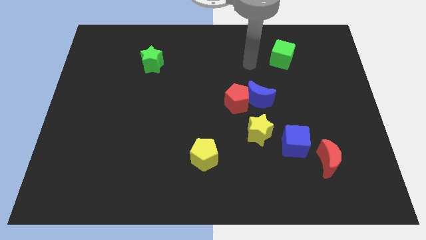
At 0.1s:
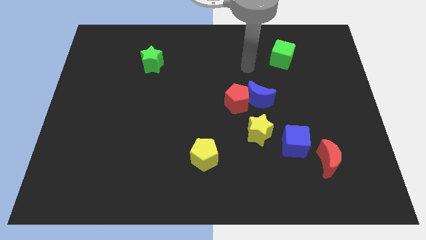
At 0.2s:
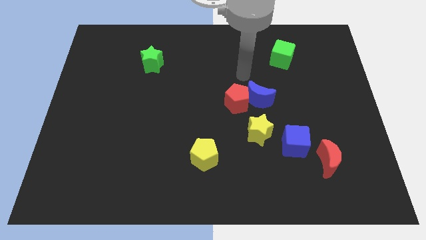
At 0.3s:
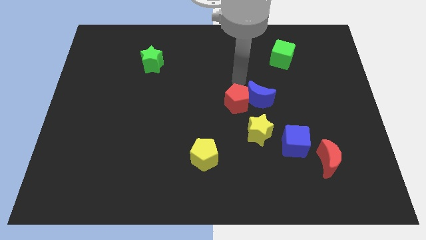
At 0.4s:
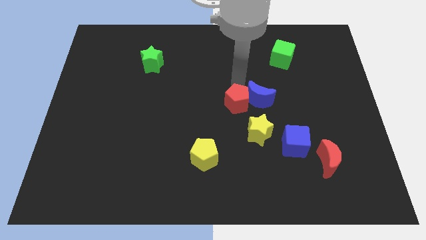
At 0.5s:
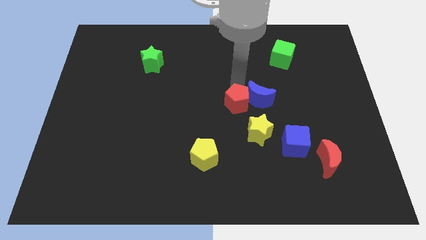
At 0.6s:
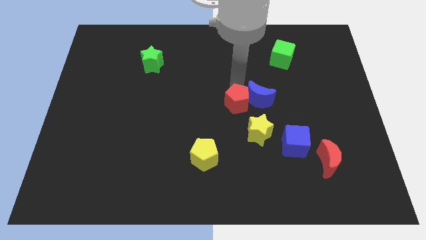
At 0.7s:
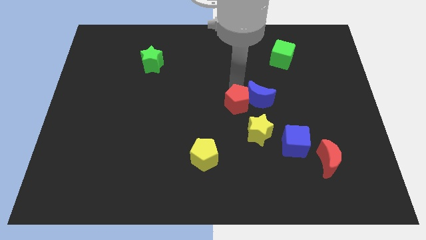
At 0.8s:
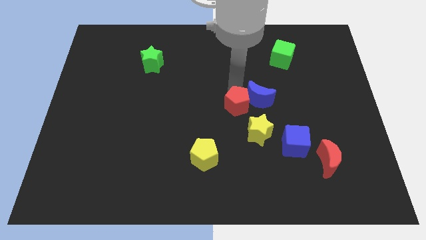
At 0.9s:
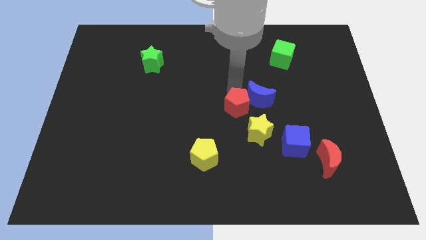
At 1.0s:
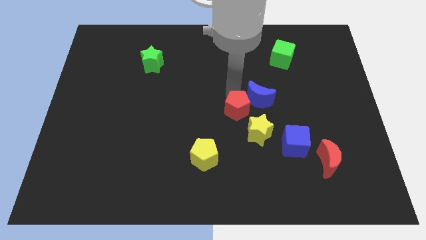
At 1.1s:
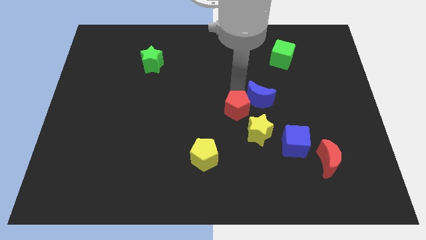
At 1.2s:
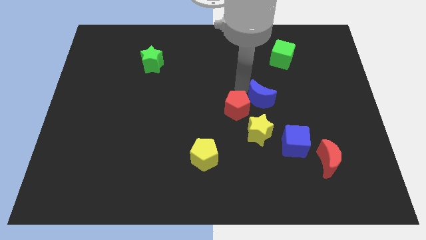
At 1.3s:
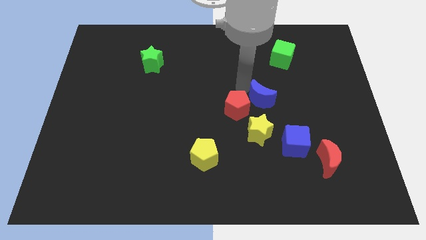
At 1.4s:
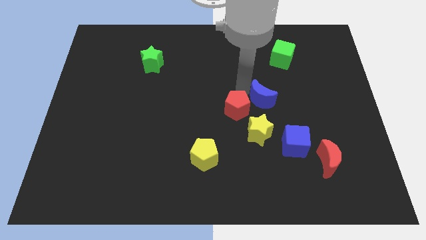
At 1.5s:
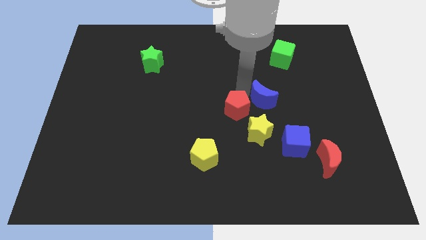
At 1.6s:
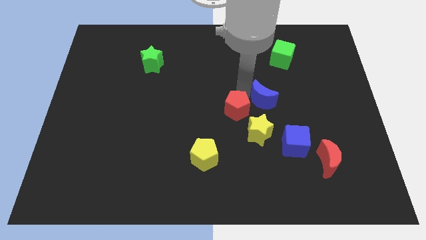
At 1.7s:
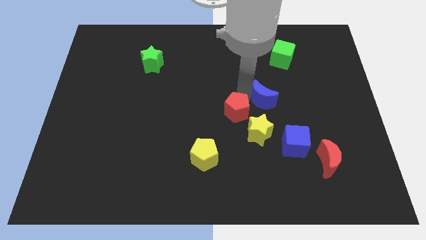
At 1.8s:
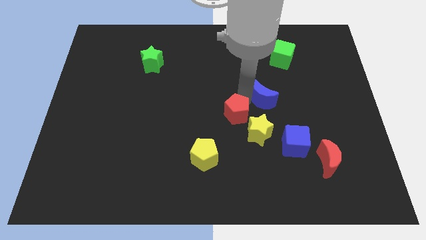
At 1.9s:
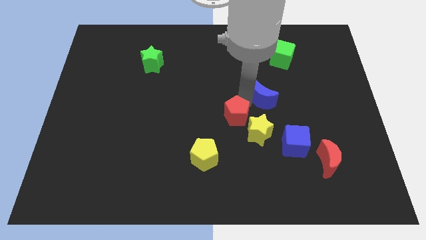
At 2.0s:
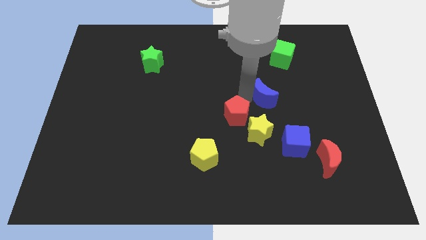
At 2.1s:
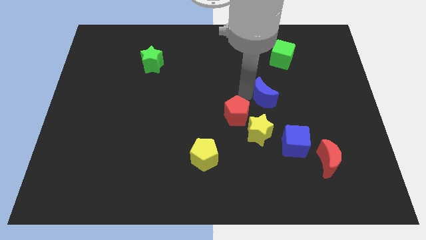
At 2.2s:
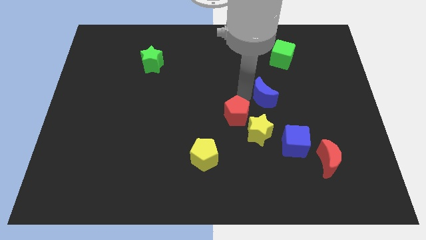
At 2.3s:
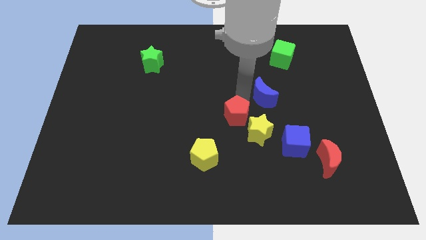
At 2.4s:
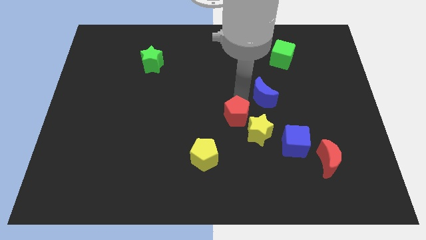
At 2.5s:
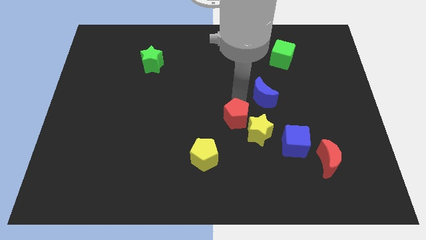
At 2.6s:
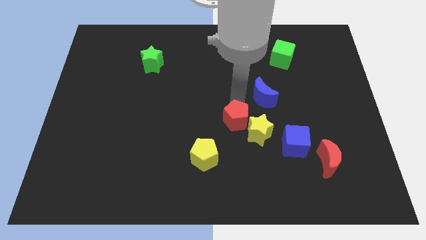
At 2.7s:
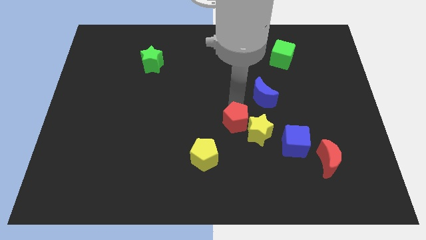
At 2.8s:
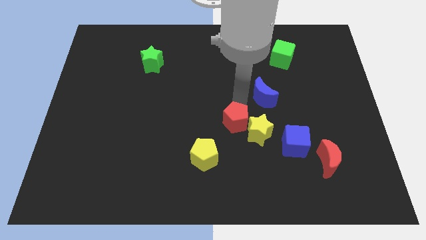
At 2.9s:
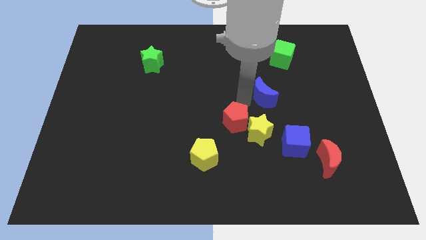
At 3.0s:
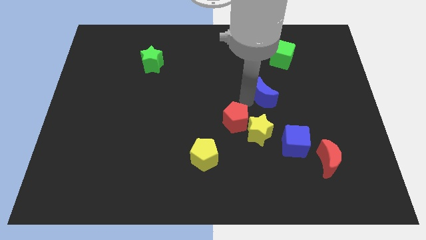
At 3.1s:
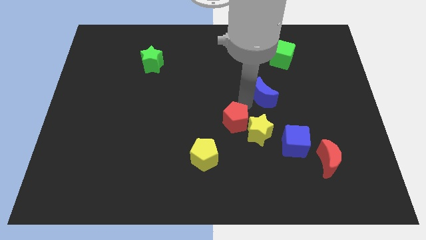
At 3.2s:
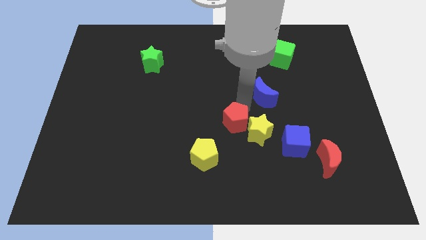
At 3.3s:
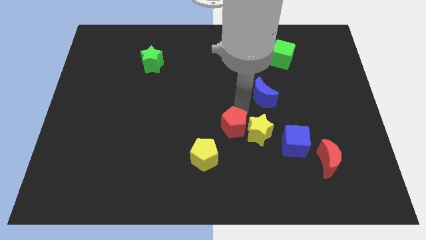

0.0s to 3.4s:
slightly move the red pentagon down

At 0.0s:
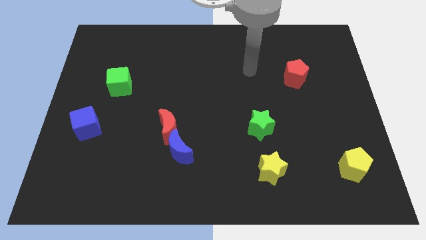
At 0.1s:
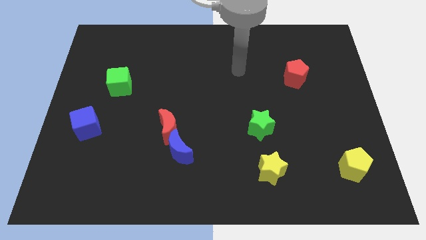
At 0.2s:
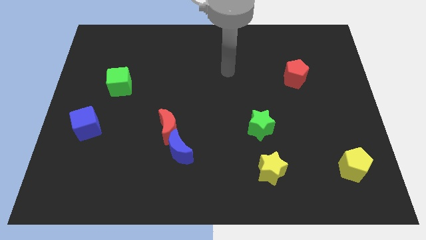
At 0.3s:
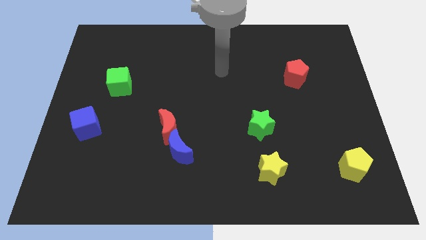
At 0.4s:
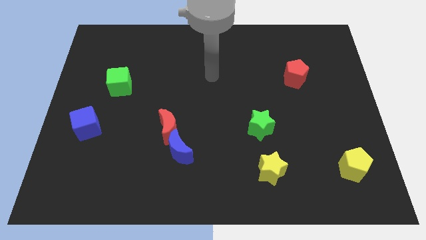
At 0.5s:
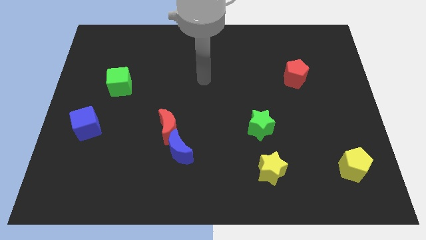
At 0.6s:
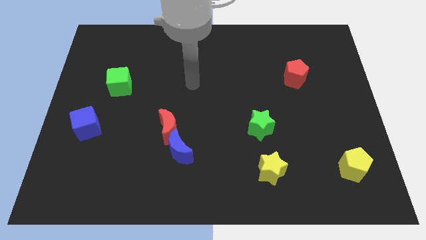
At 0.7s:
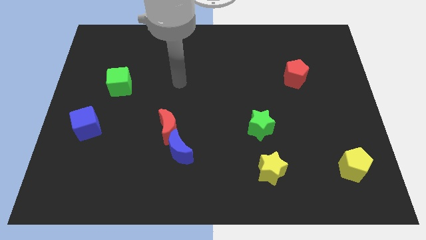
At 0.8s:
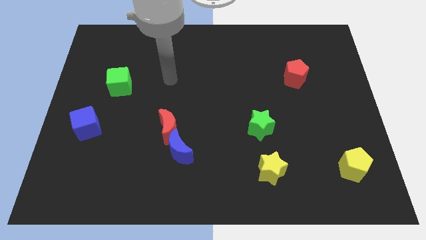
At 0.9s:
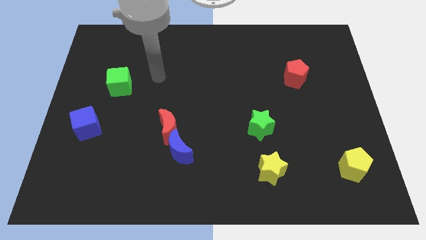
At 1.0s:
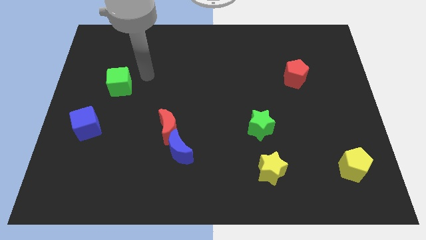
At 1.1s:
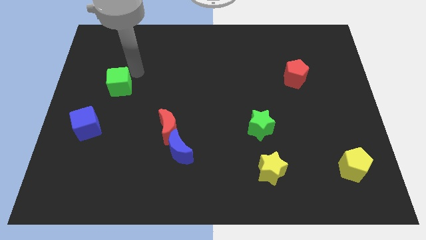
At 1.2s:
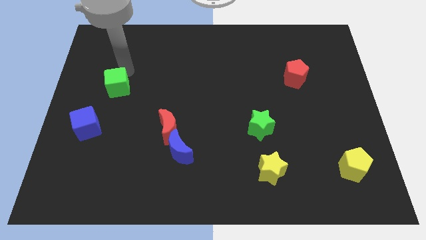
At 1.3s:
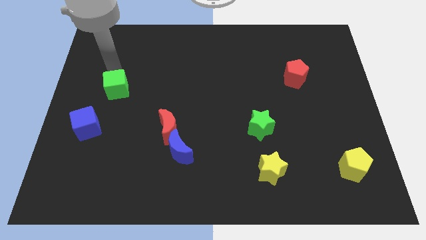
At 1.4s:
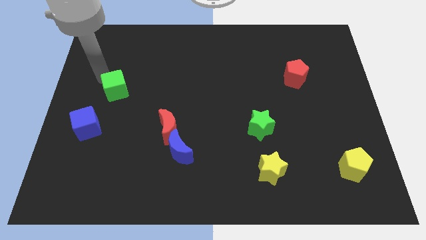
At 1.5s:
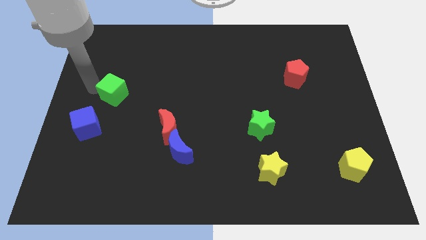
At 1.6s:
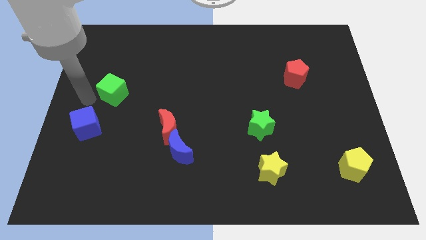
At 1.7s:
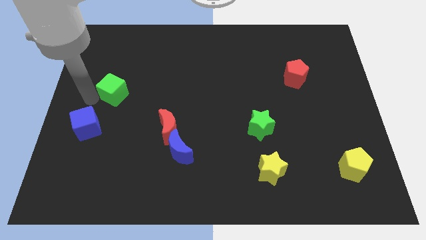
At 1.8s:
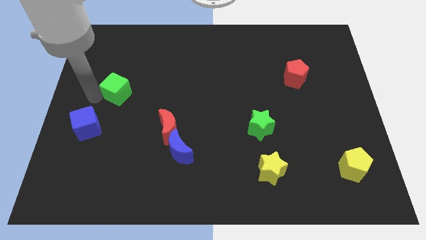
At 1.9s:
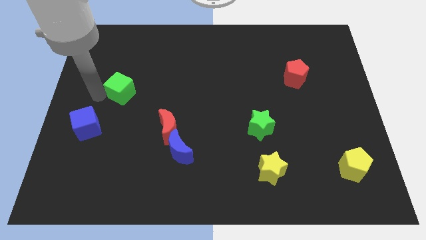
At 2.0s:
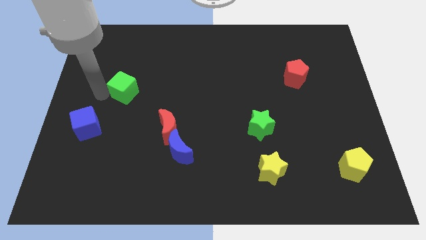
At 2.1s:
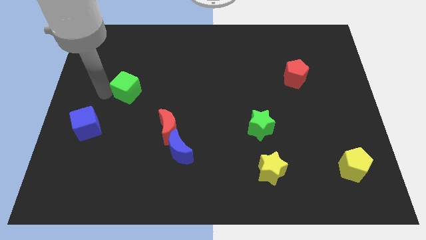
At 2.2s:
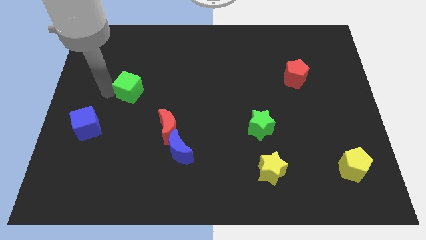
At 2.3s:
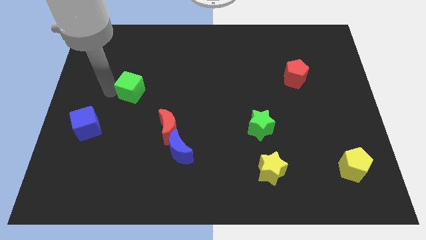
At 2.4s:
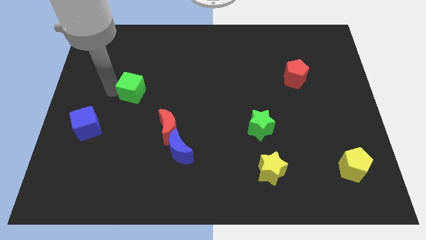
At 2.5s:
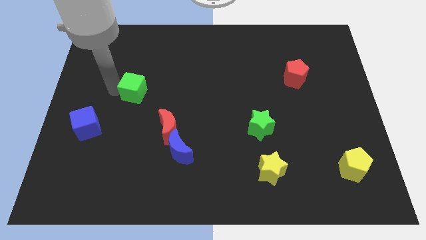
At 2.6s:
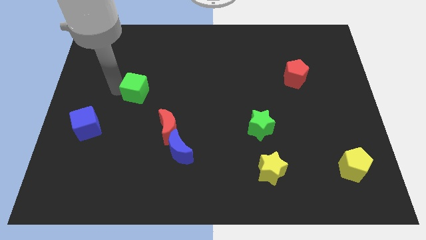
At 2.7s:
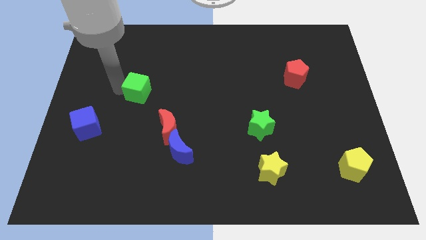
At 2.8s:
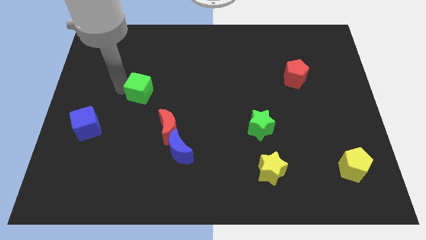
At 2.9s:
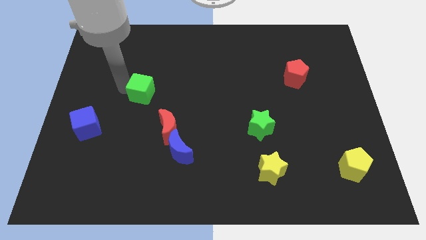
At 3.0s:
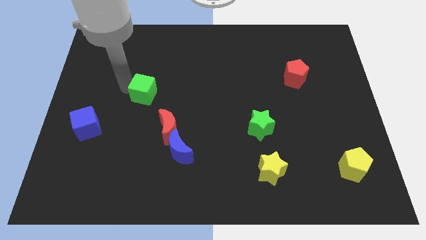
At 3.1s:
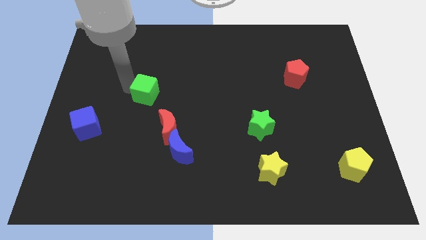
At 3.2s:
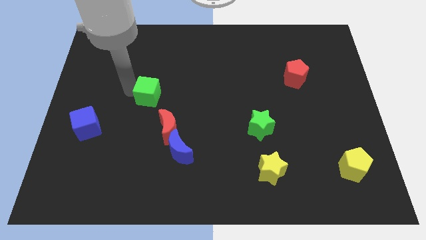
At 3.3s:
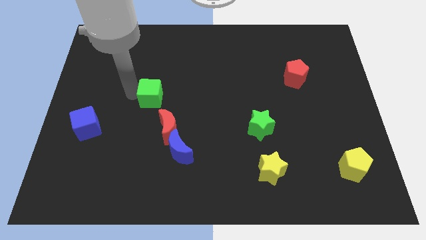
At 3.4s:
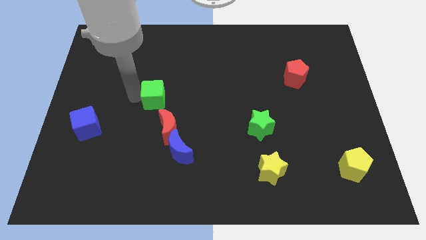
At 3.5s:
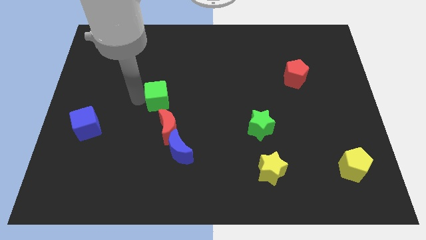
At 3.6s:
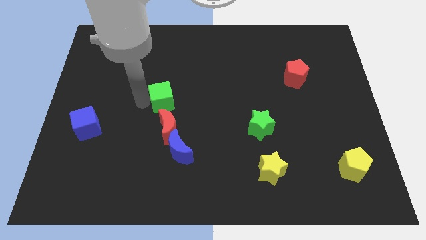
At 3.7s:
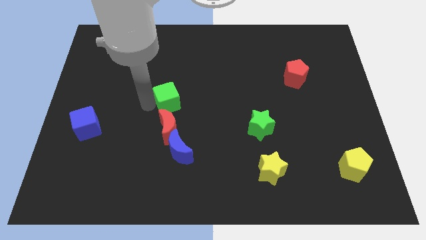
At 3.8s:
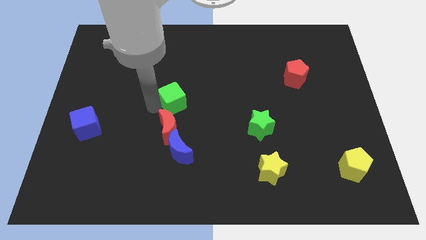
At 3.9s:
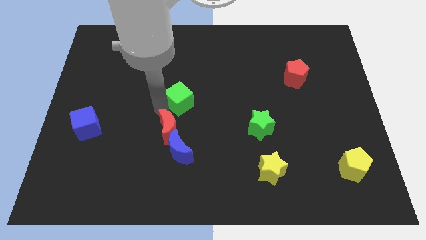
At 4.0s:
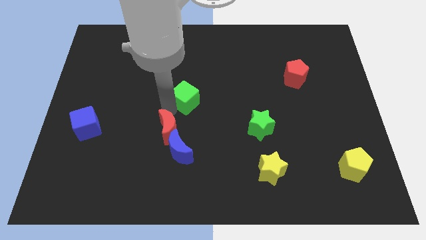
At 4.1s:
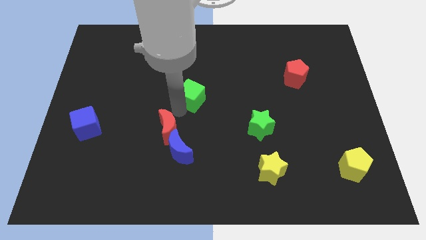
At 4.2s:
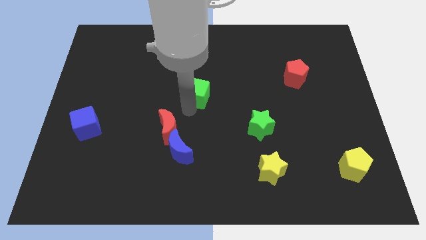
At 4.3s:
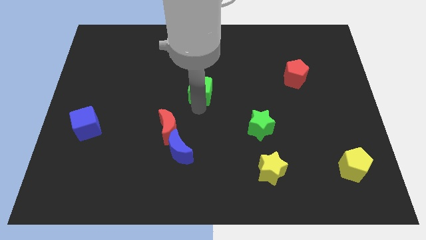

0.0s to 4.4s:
slide the green cube right

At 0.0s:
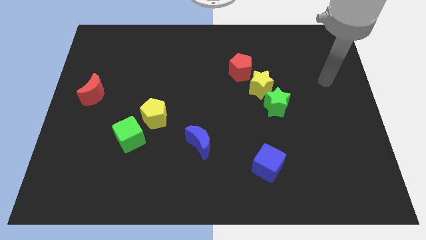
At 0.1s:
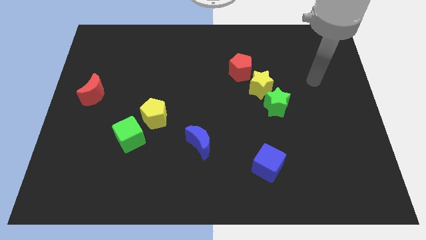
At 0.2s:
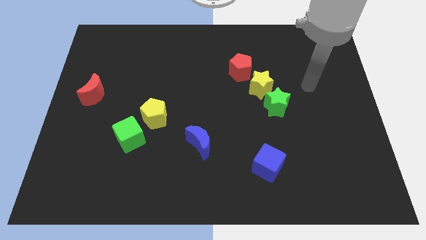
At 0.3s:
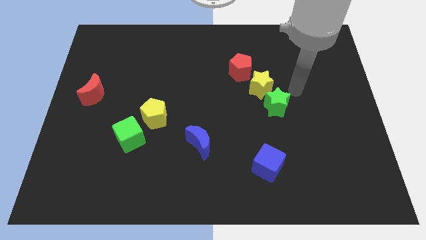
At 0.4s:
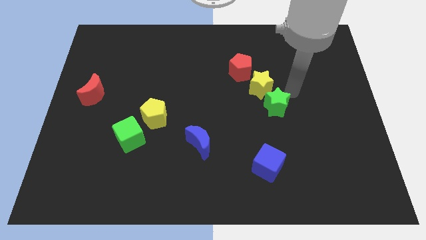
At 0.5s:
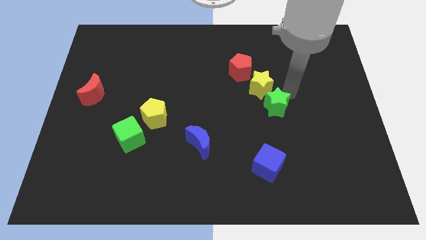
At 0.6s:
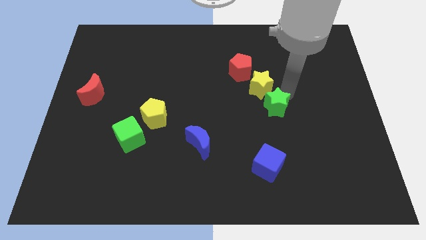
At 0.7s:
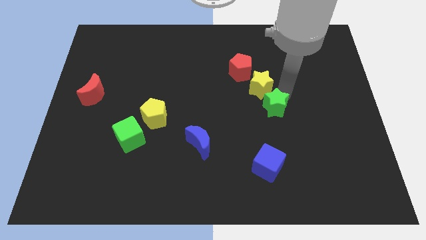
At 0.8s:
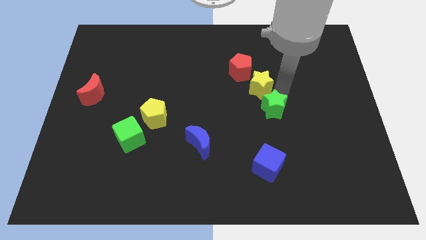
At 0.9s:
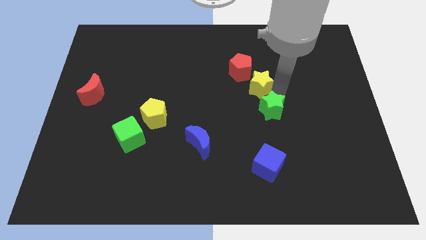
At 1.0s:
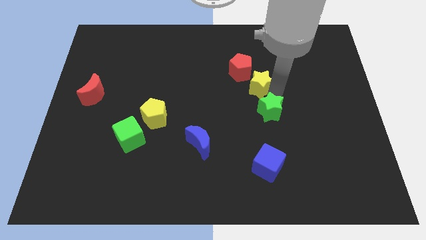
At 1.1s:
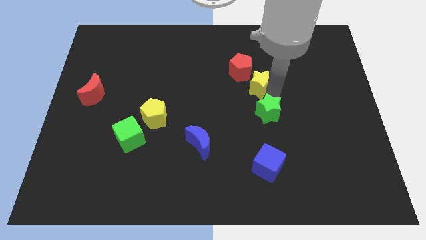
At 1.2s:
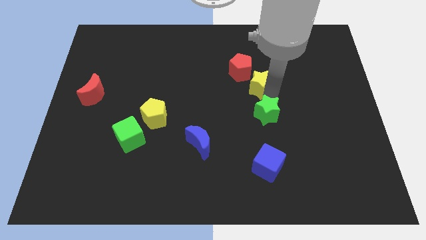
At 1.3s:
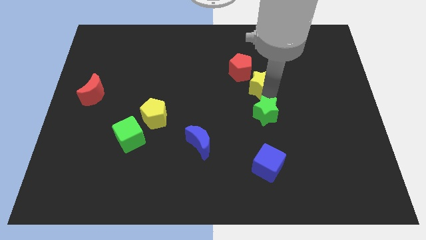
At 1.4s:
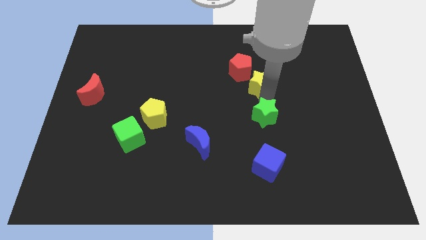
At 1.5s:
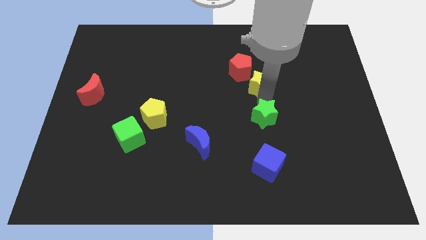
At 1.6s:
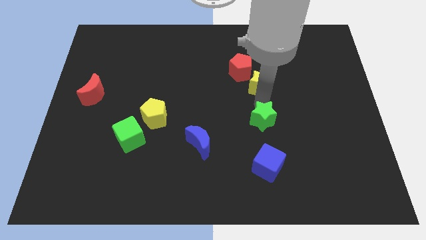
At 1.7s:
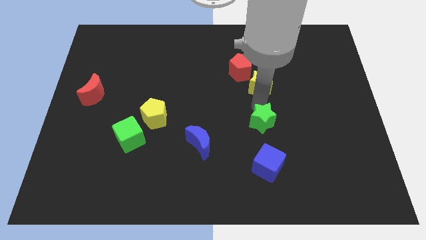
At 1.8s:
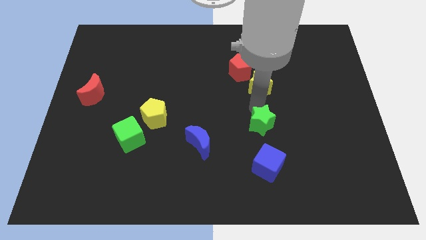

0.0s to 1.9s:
slightly push the green star diagonally down and left
